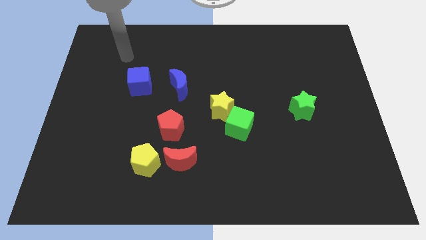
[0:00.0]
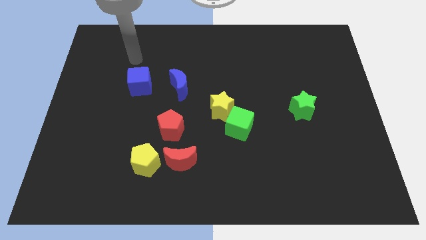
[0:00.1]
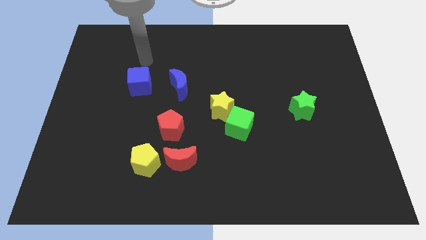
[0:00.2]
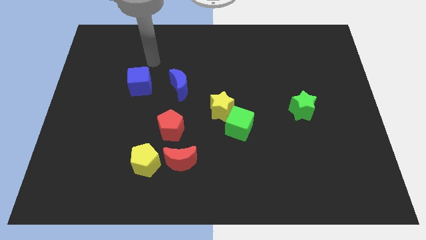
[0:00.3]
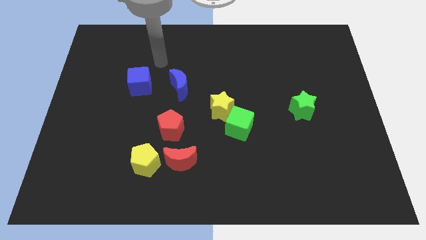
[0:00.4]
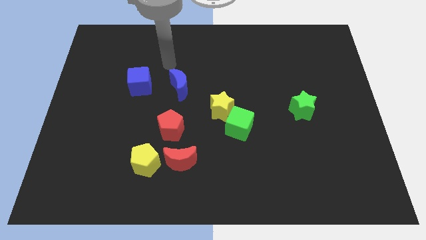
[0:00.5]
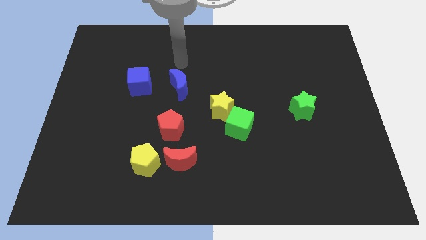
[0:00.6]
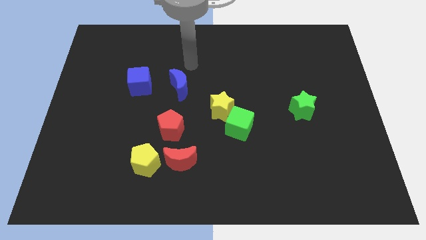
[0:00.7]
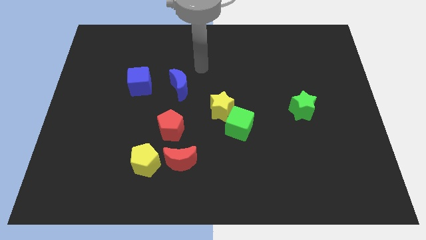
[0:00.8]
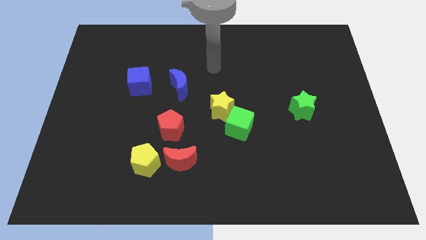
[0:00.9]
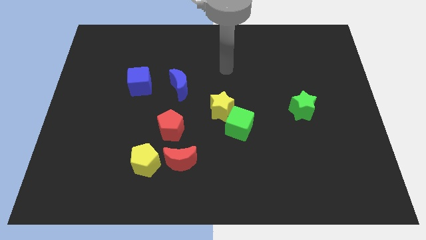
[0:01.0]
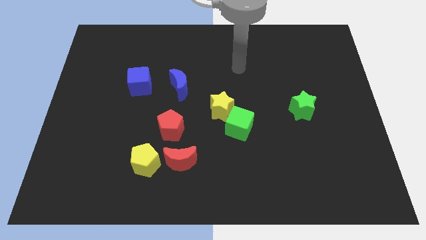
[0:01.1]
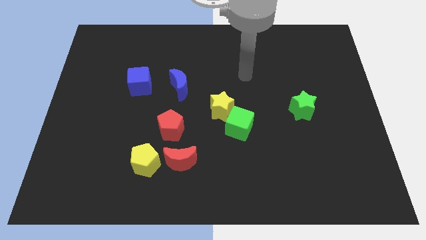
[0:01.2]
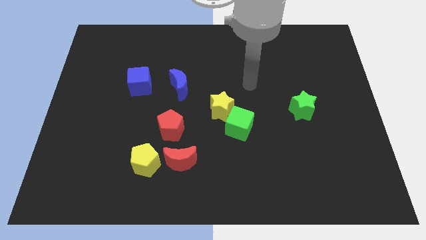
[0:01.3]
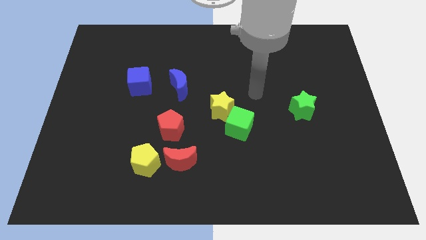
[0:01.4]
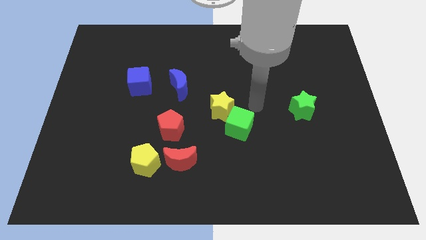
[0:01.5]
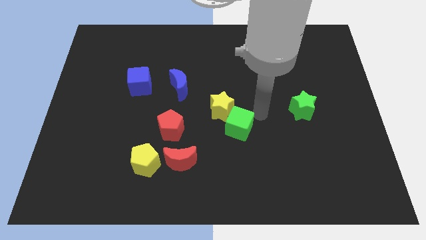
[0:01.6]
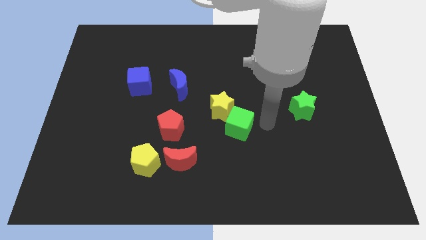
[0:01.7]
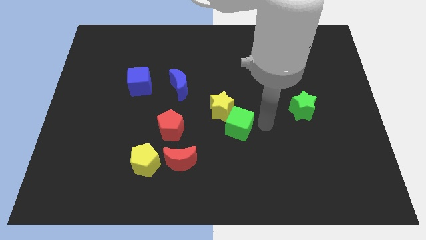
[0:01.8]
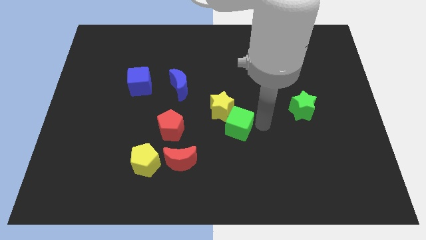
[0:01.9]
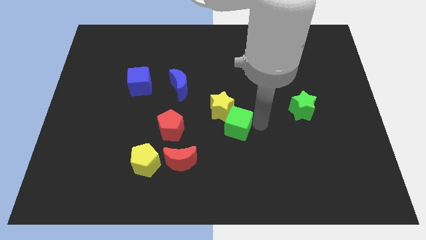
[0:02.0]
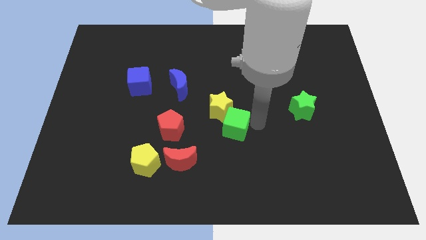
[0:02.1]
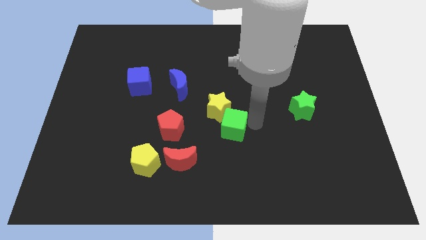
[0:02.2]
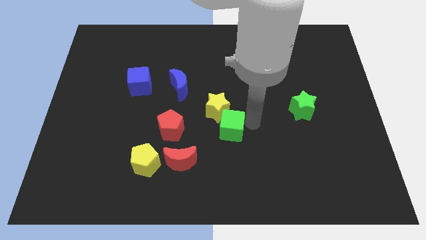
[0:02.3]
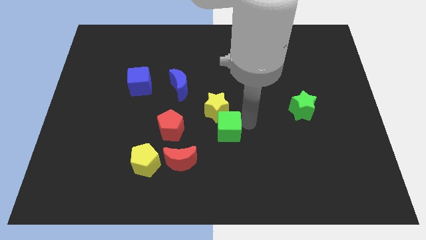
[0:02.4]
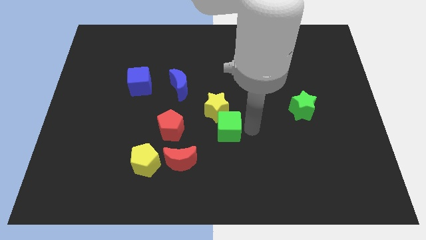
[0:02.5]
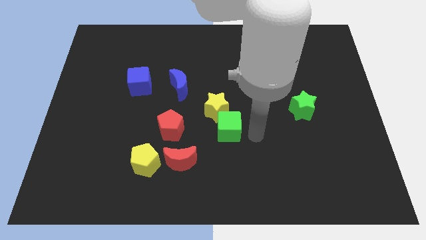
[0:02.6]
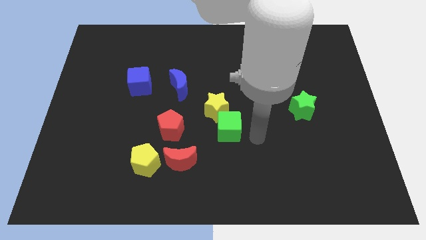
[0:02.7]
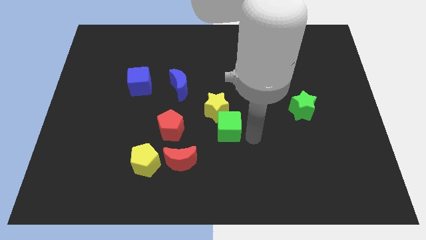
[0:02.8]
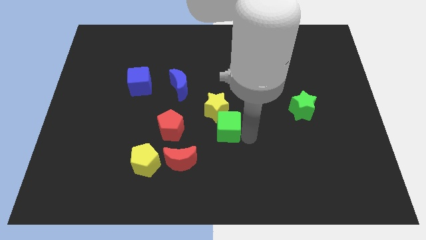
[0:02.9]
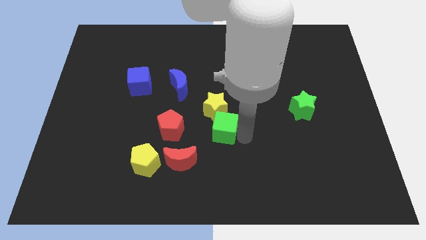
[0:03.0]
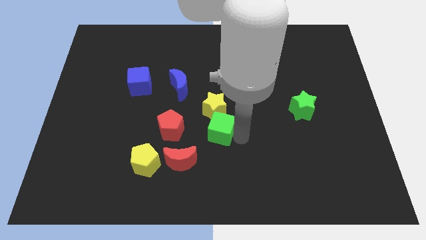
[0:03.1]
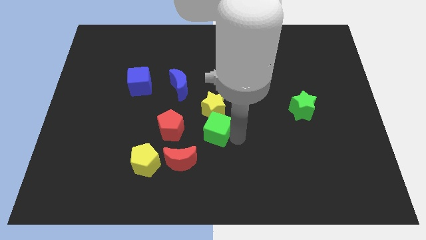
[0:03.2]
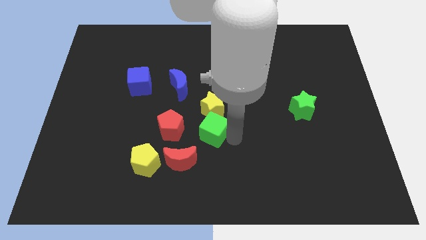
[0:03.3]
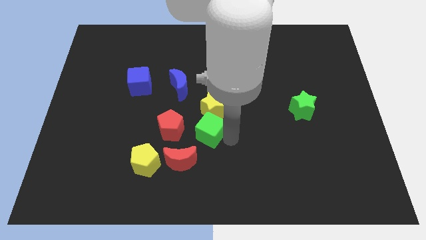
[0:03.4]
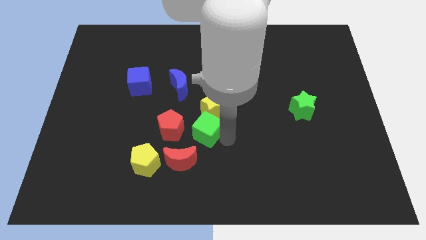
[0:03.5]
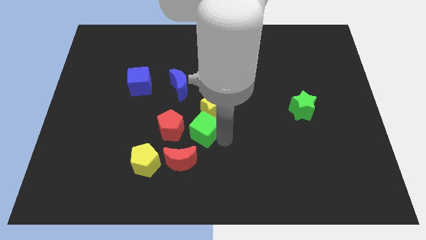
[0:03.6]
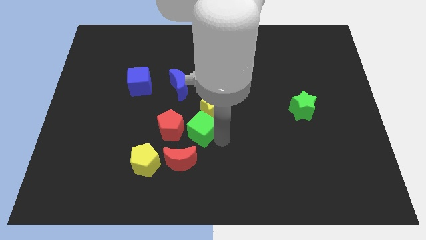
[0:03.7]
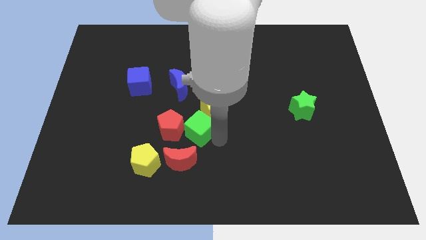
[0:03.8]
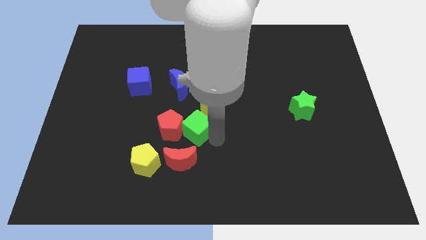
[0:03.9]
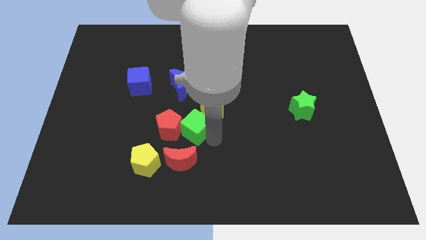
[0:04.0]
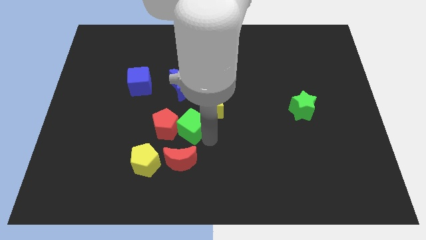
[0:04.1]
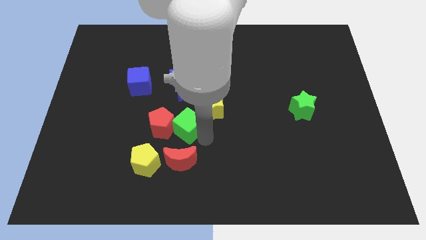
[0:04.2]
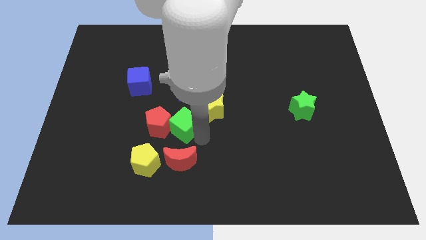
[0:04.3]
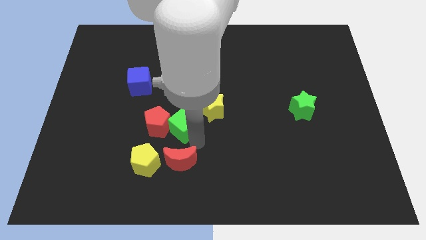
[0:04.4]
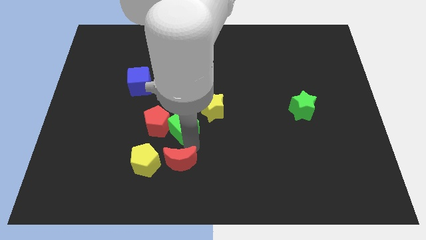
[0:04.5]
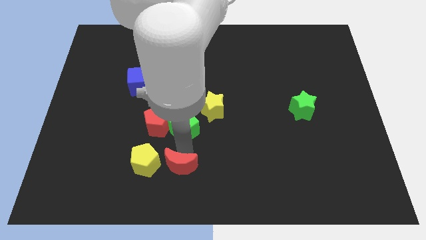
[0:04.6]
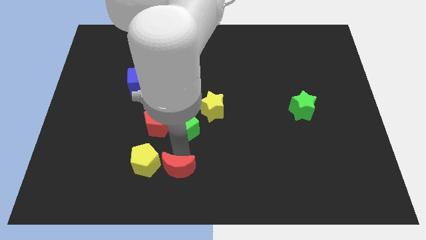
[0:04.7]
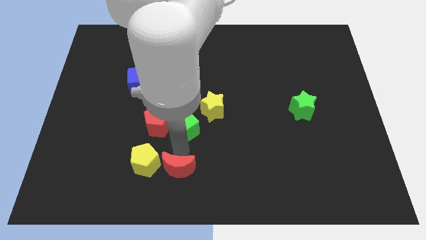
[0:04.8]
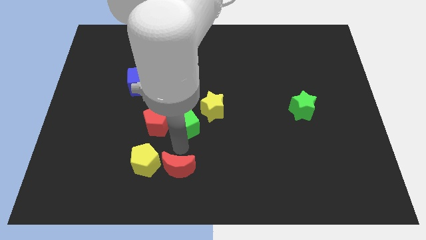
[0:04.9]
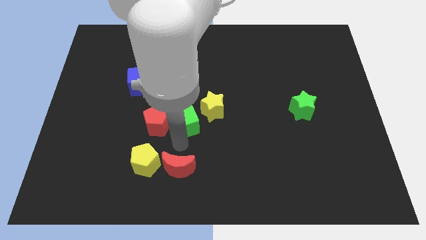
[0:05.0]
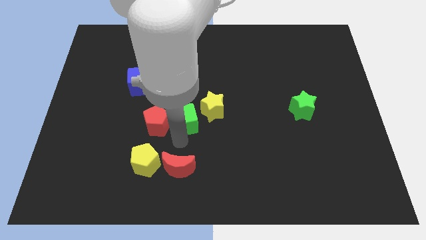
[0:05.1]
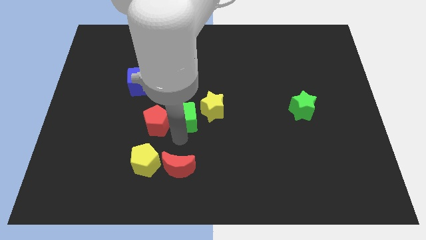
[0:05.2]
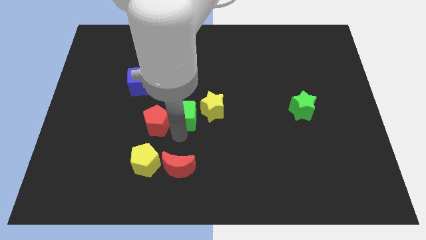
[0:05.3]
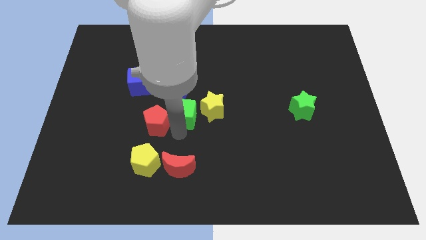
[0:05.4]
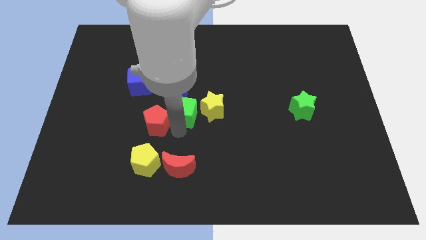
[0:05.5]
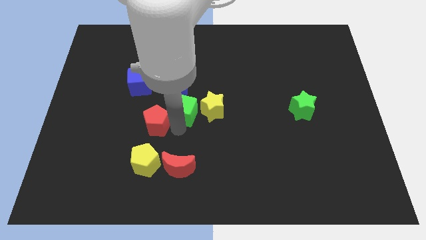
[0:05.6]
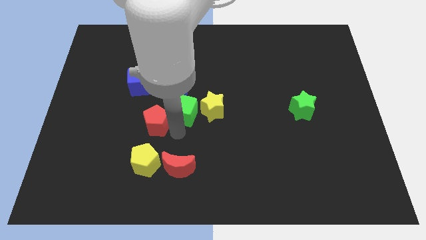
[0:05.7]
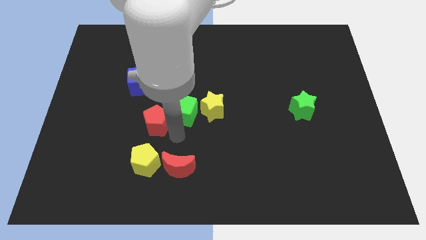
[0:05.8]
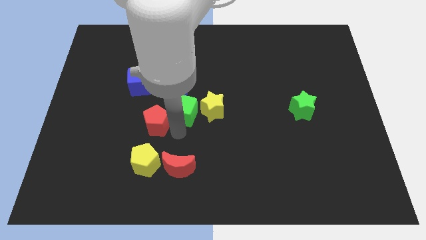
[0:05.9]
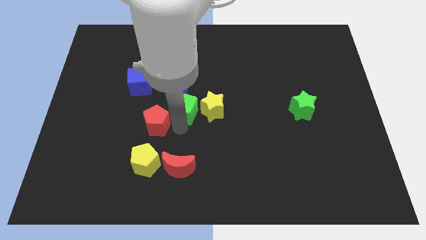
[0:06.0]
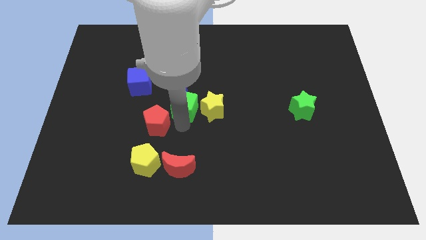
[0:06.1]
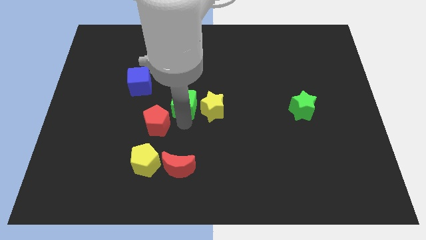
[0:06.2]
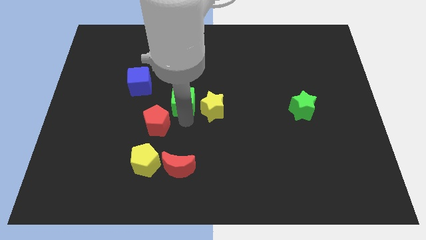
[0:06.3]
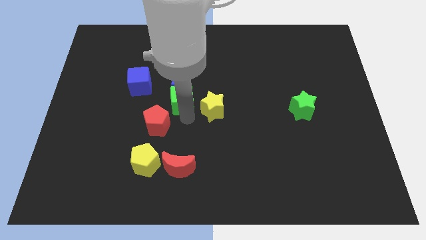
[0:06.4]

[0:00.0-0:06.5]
put the green cube close to the blue moon
